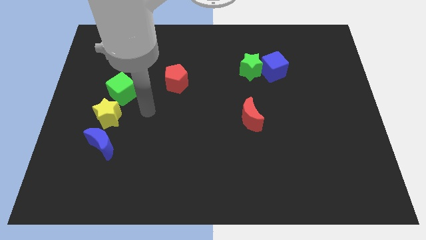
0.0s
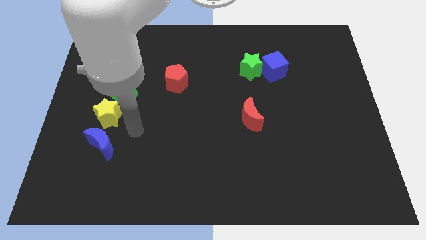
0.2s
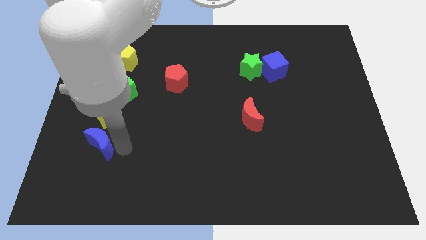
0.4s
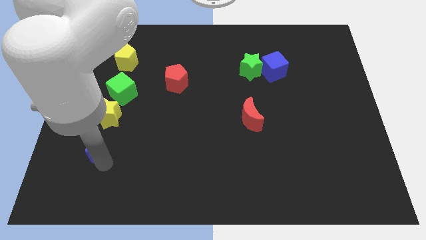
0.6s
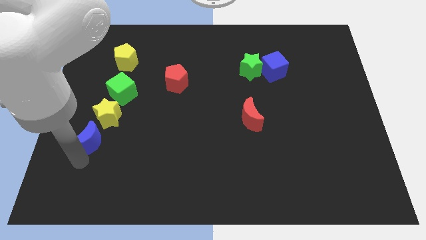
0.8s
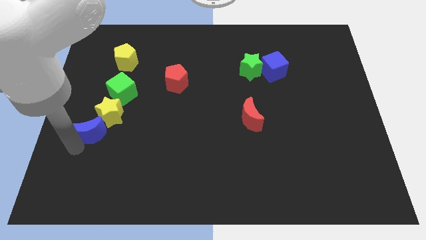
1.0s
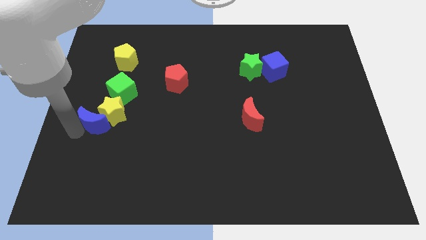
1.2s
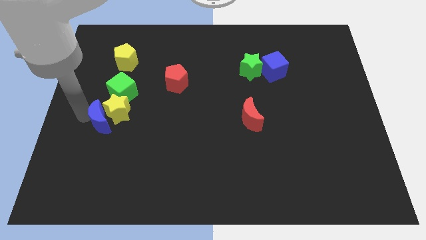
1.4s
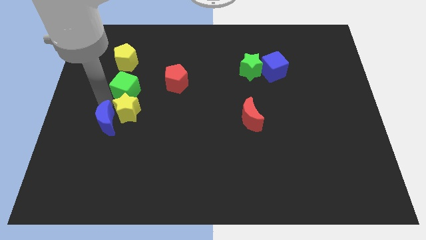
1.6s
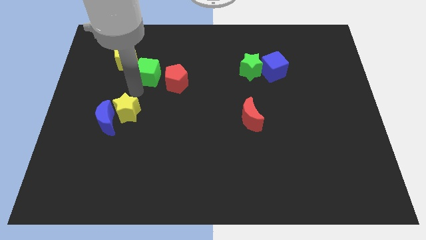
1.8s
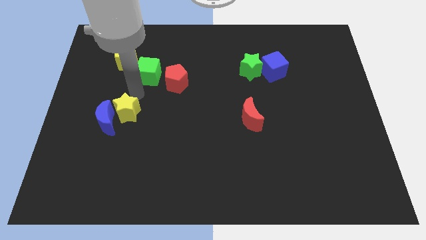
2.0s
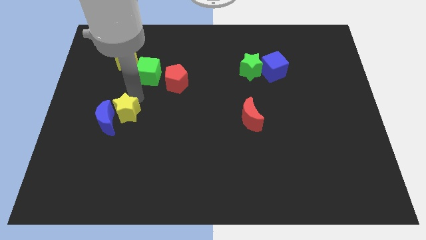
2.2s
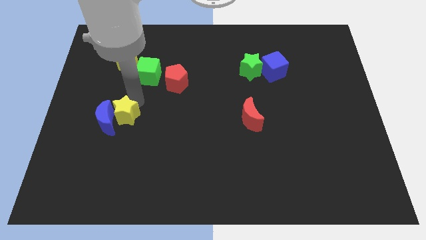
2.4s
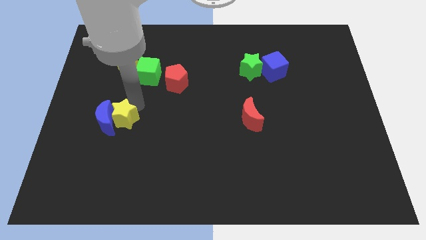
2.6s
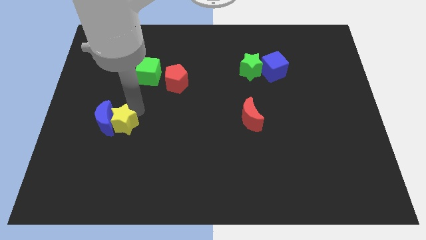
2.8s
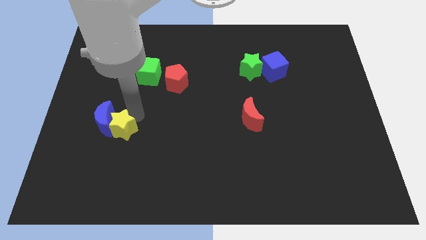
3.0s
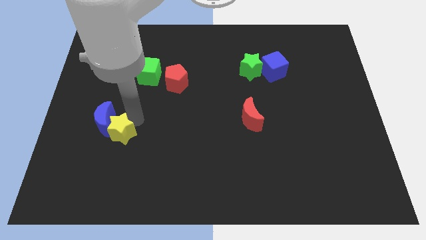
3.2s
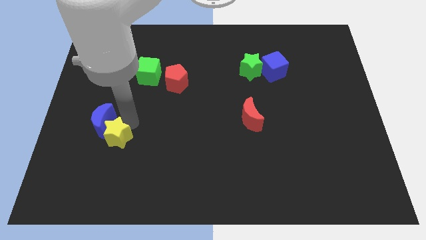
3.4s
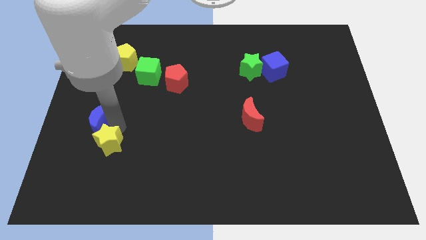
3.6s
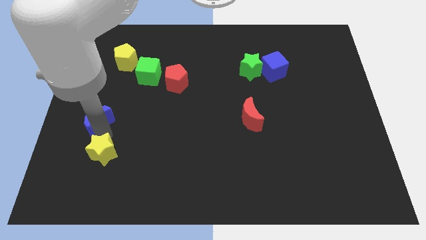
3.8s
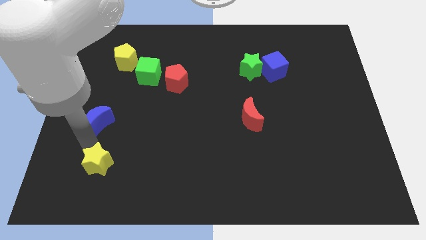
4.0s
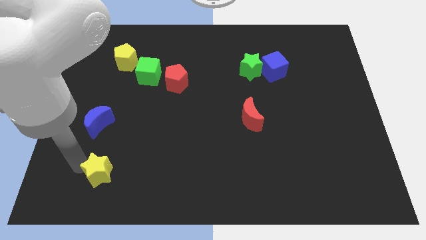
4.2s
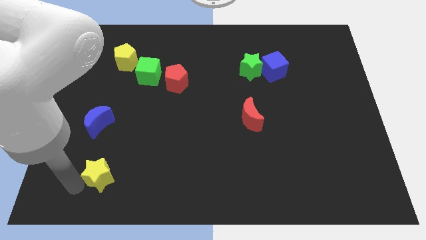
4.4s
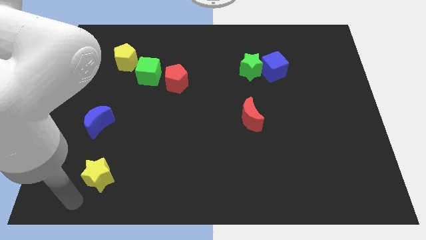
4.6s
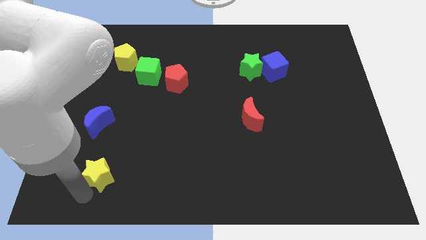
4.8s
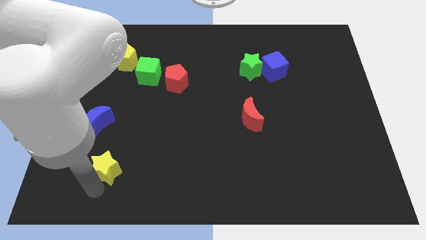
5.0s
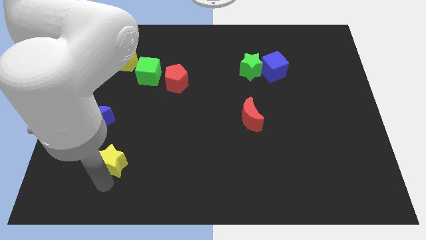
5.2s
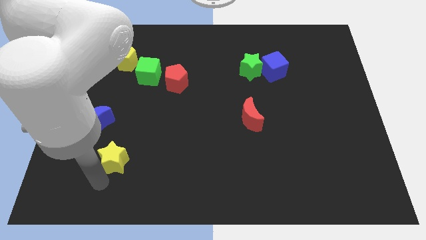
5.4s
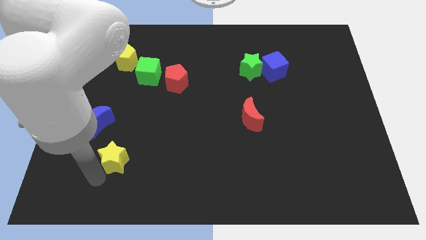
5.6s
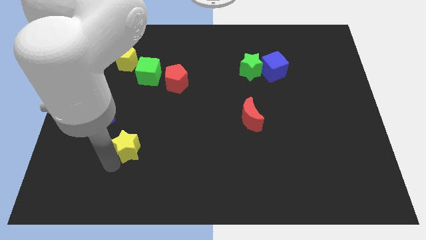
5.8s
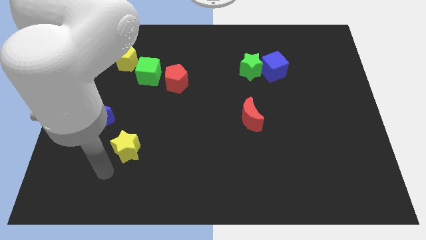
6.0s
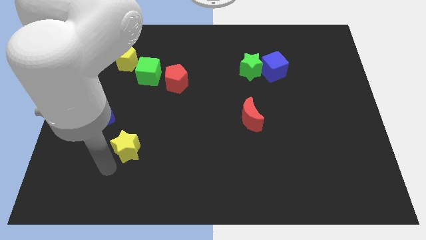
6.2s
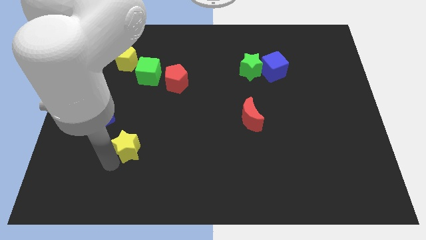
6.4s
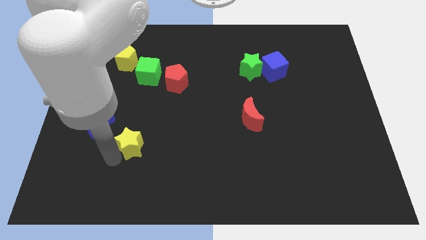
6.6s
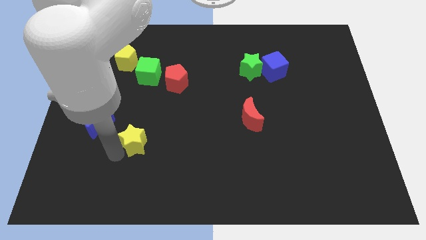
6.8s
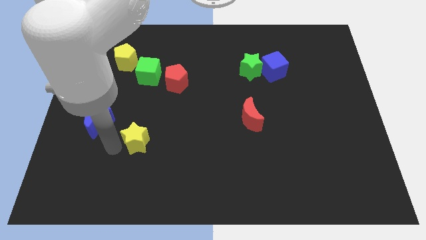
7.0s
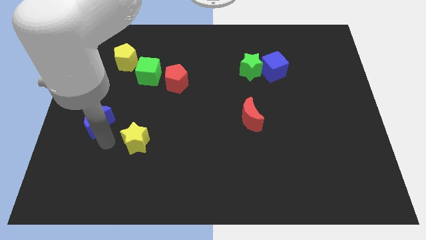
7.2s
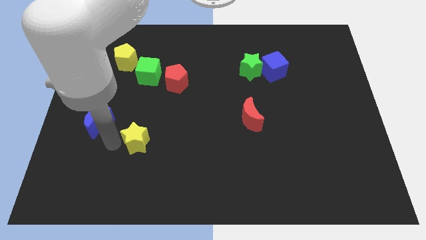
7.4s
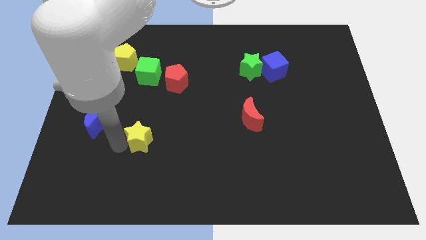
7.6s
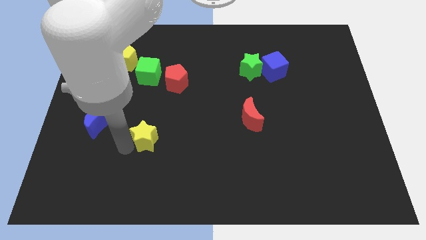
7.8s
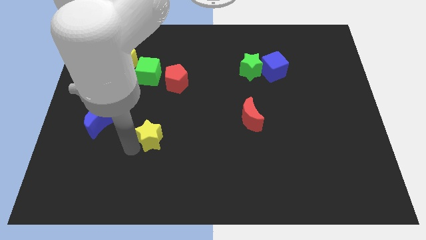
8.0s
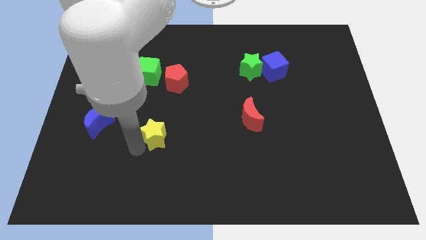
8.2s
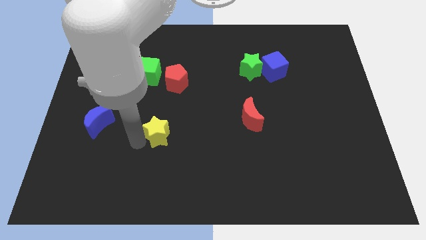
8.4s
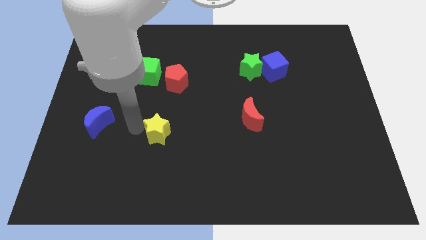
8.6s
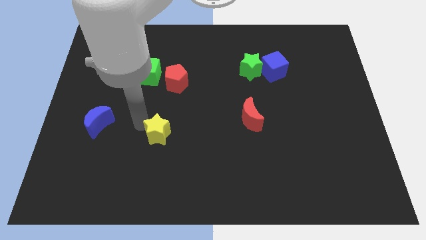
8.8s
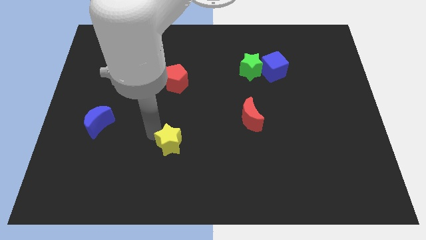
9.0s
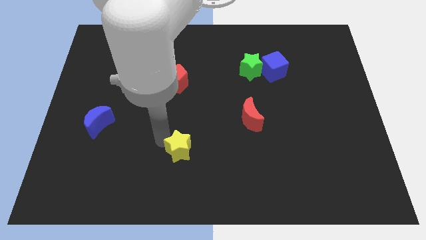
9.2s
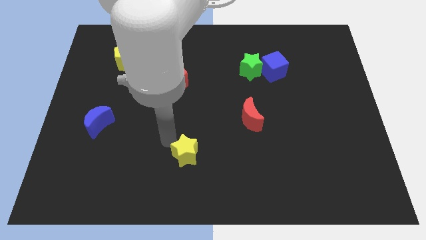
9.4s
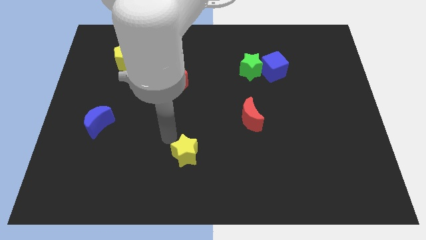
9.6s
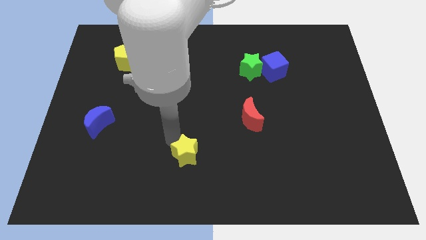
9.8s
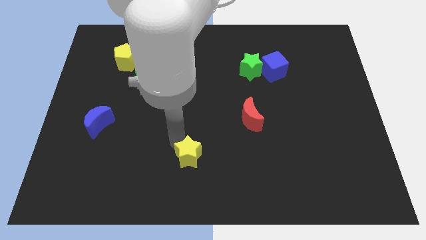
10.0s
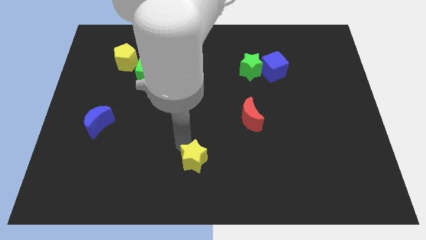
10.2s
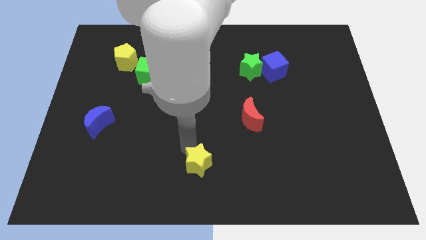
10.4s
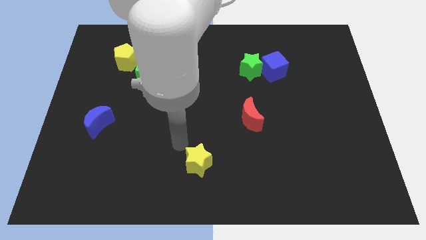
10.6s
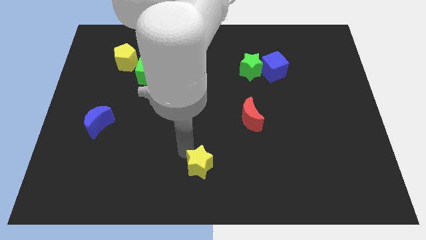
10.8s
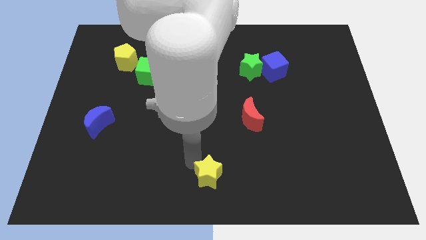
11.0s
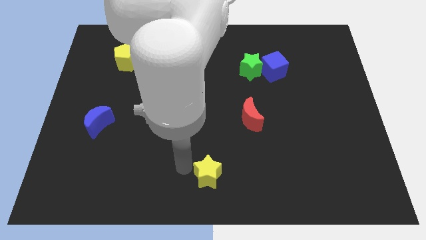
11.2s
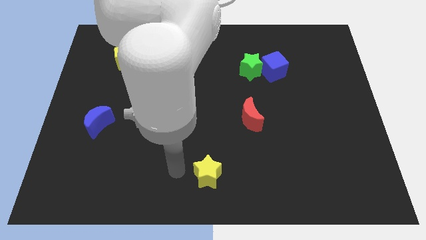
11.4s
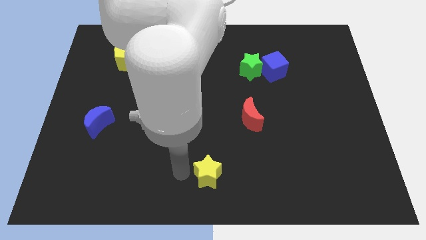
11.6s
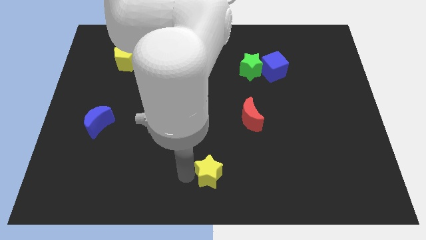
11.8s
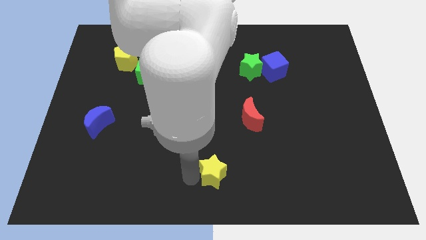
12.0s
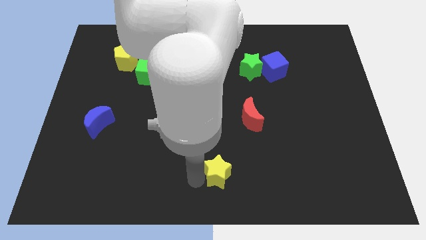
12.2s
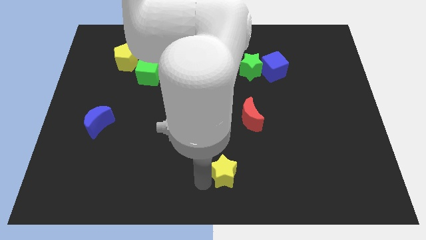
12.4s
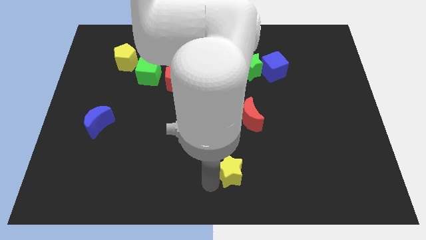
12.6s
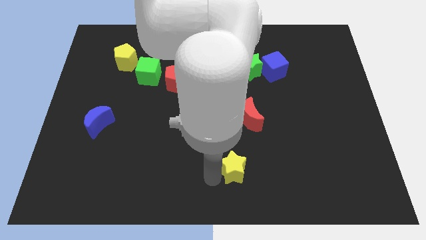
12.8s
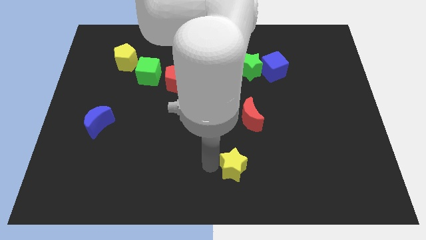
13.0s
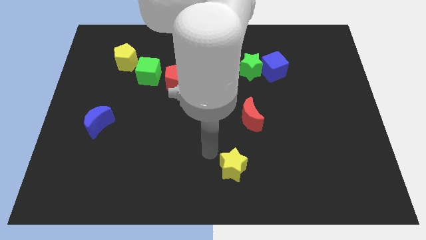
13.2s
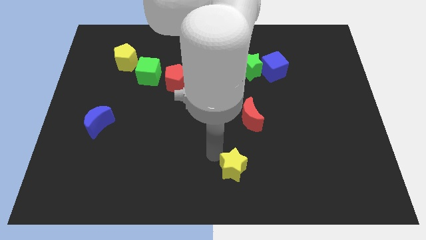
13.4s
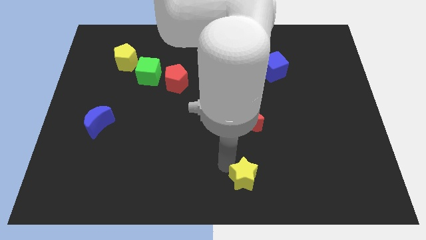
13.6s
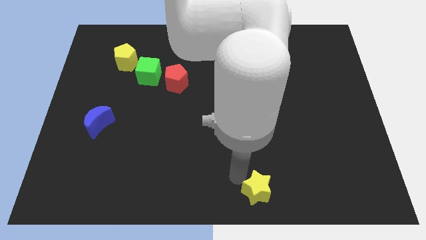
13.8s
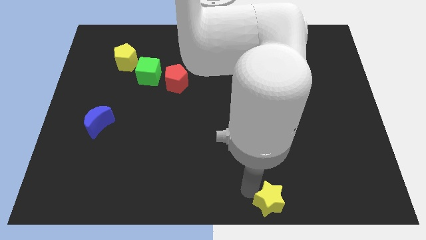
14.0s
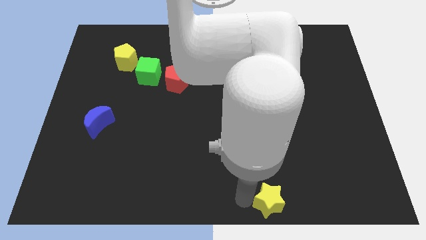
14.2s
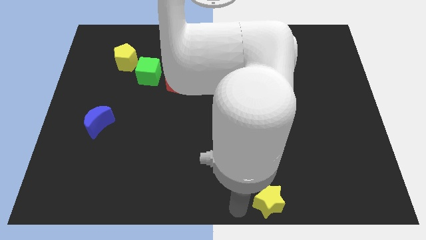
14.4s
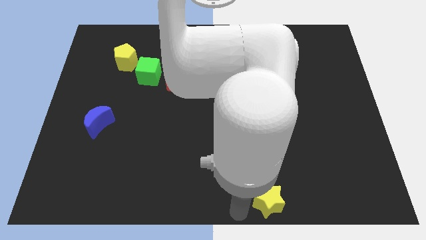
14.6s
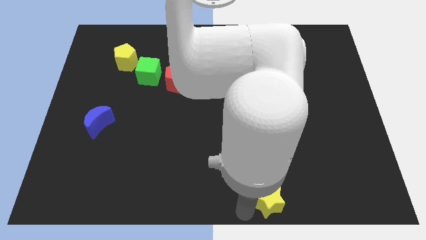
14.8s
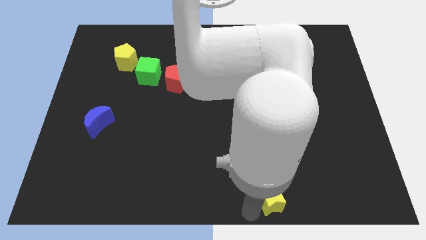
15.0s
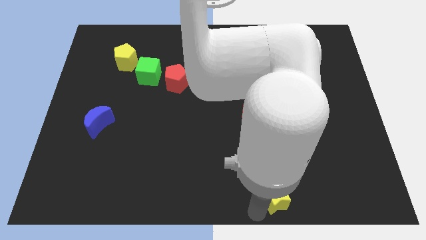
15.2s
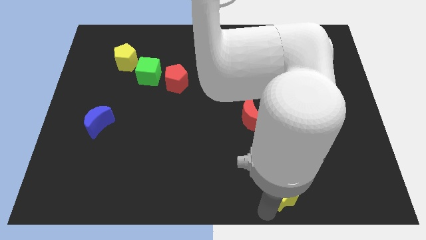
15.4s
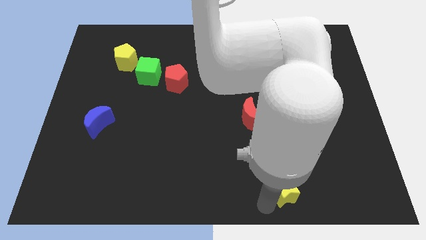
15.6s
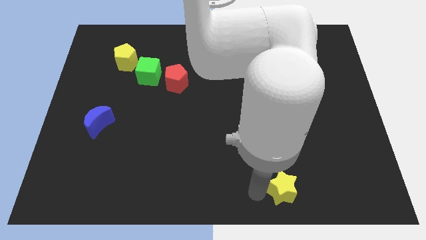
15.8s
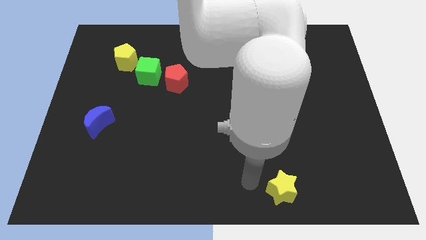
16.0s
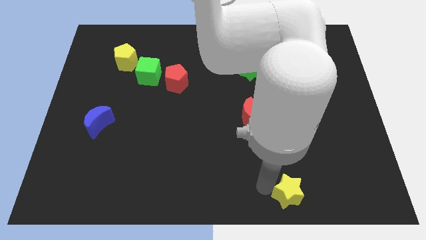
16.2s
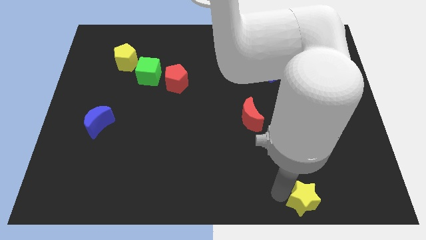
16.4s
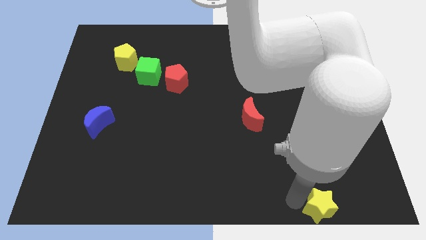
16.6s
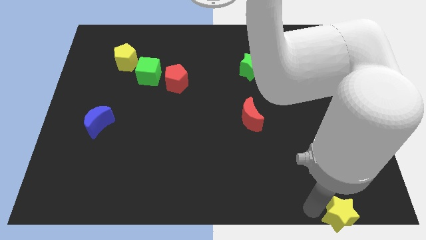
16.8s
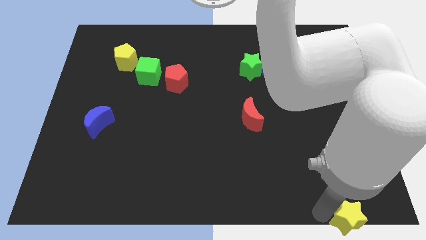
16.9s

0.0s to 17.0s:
slide the yellow star to the bottom right
